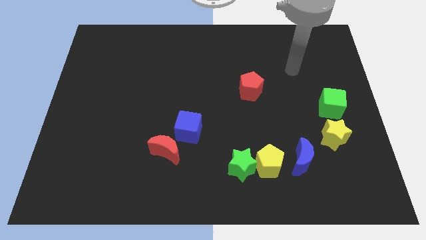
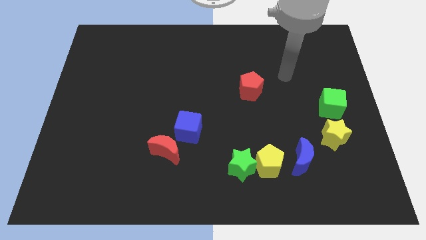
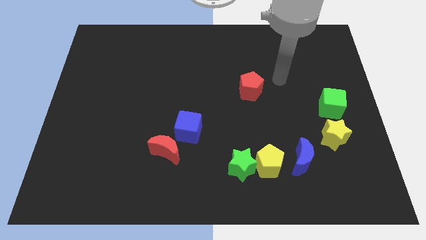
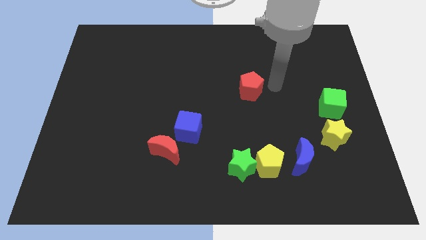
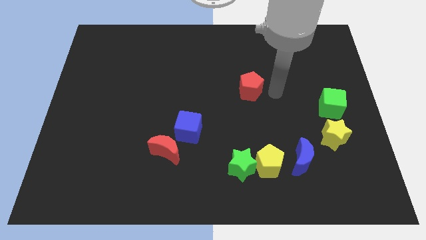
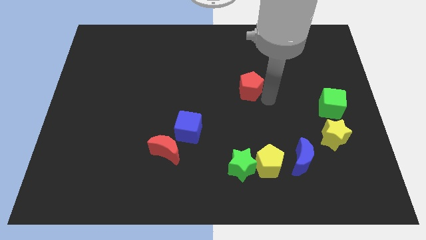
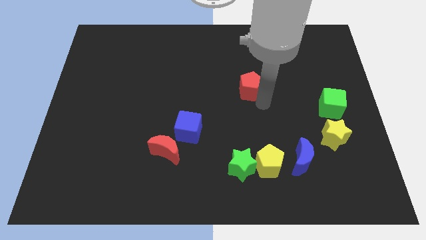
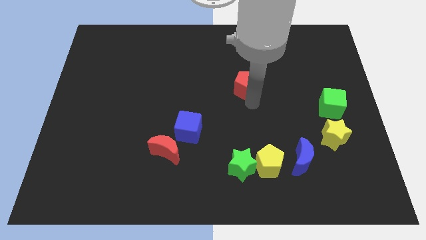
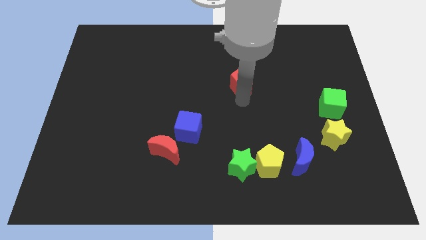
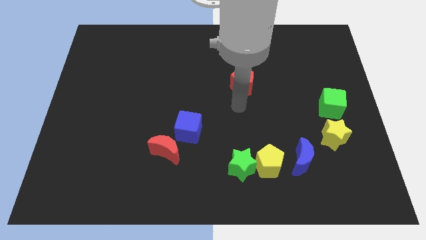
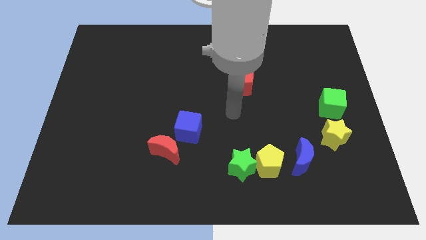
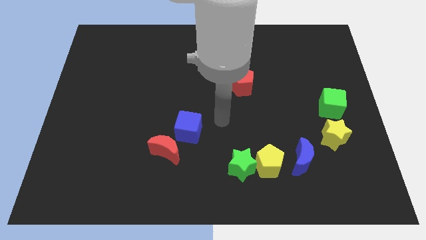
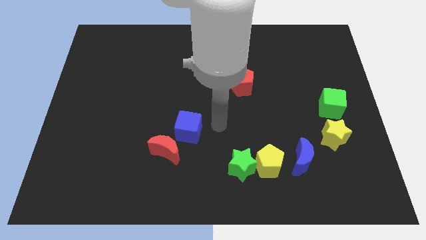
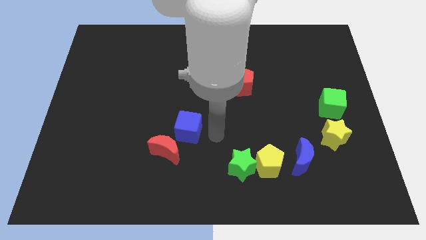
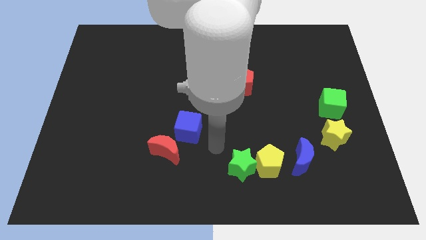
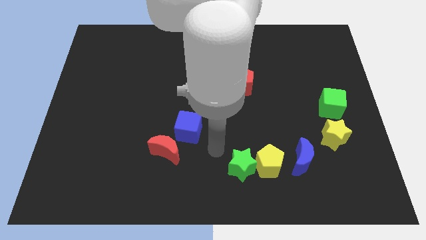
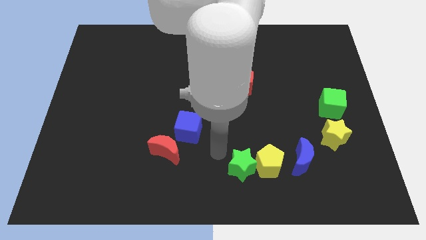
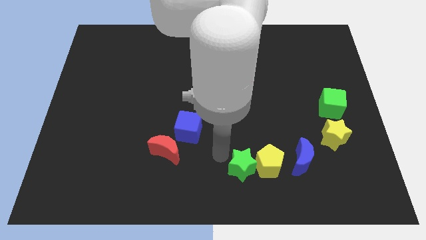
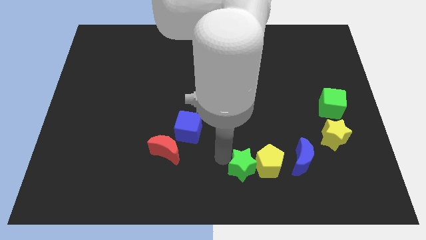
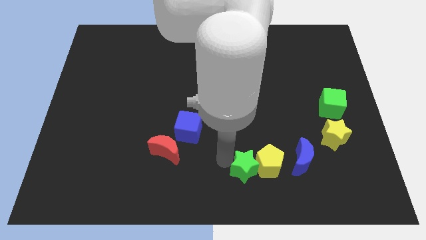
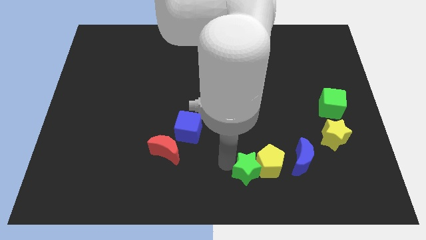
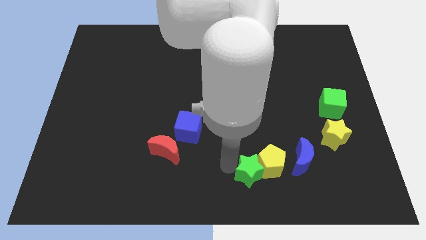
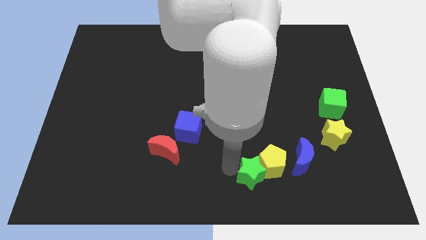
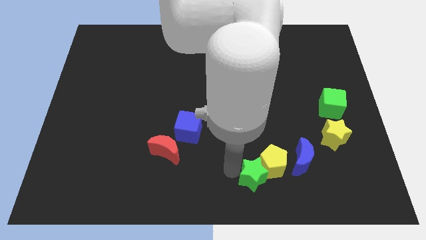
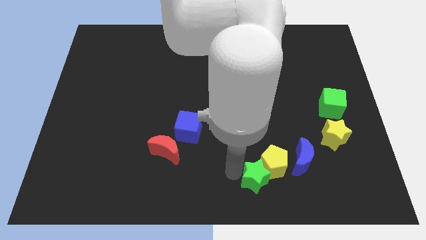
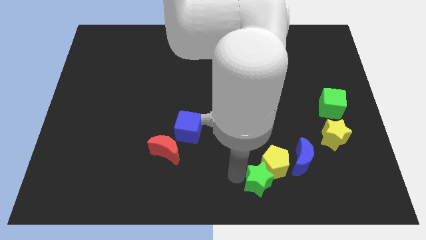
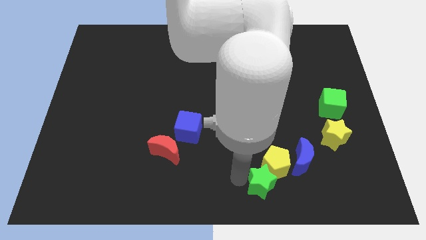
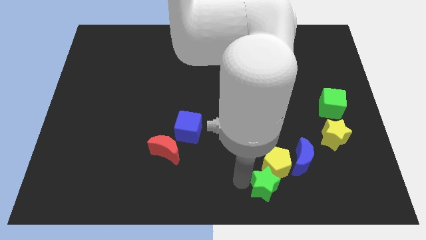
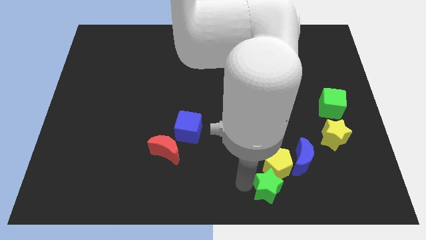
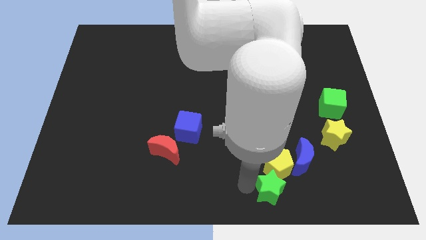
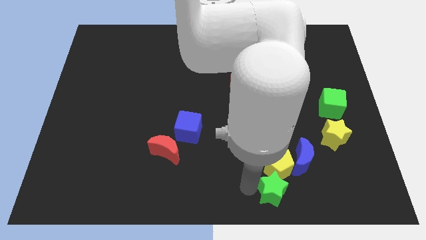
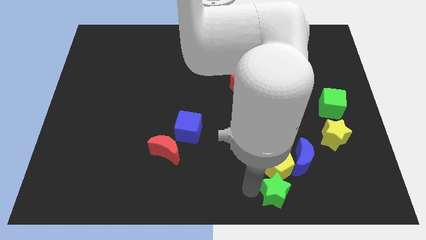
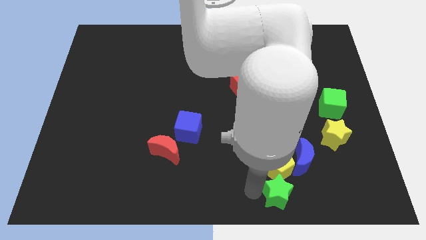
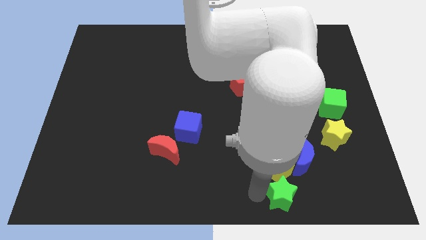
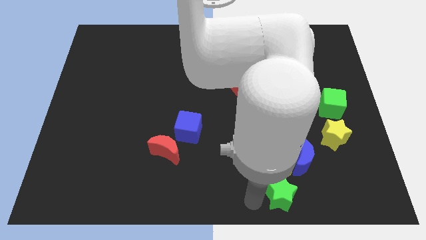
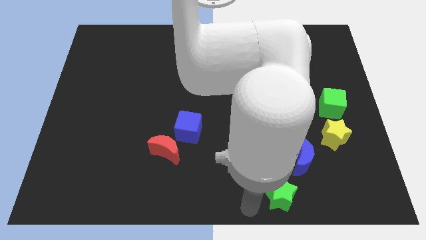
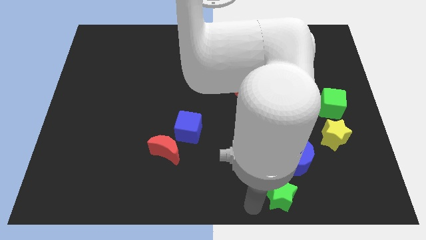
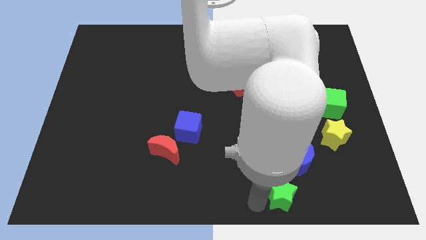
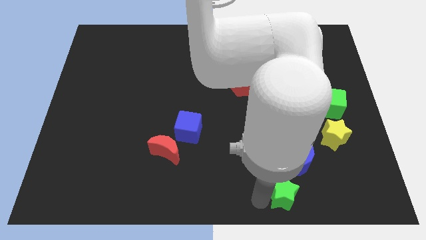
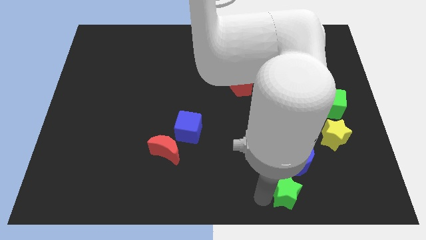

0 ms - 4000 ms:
slightly slide the green star to the right

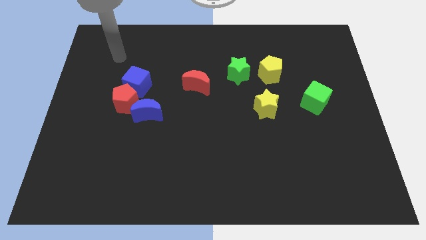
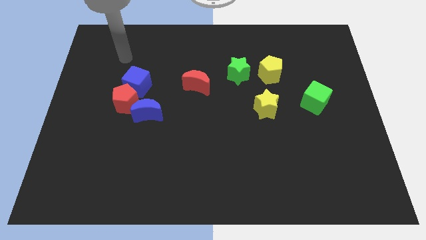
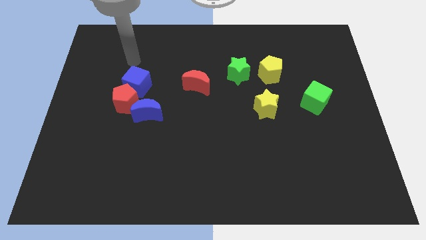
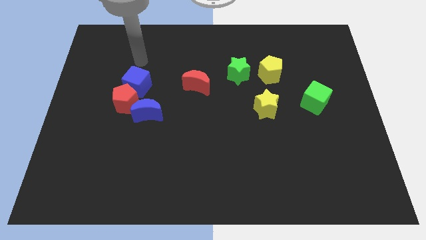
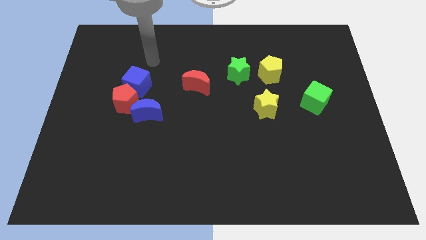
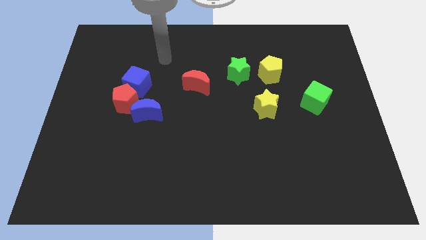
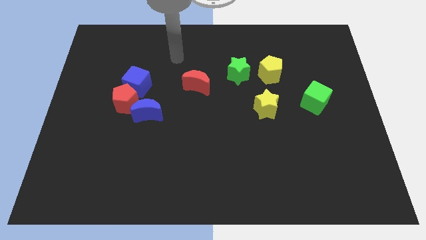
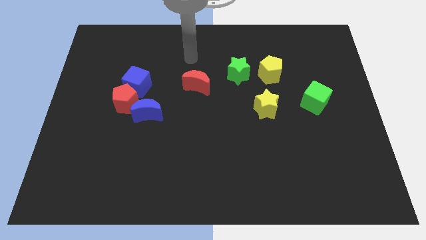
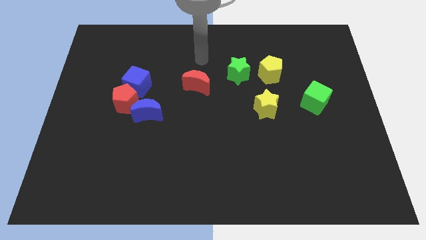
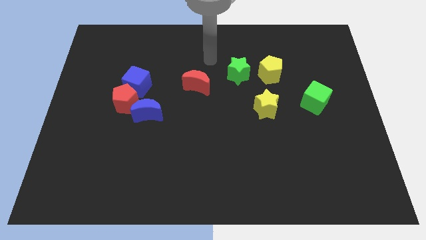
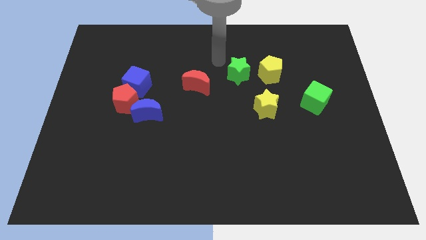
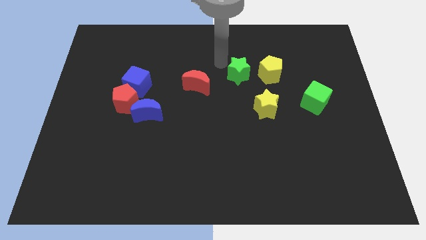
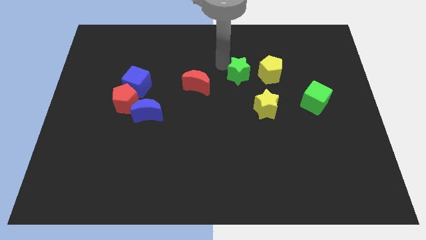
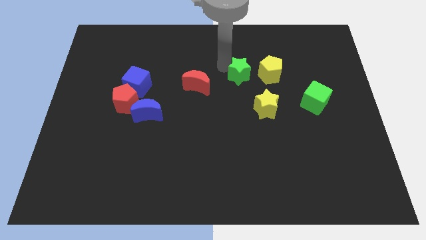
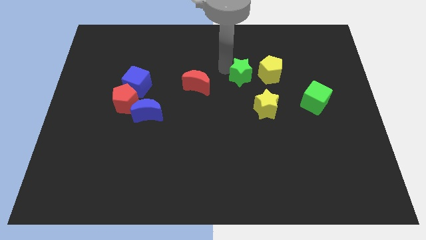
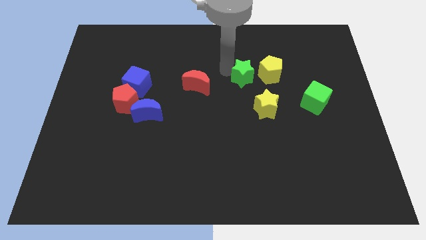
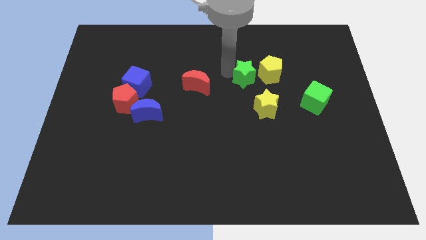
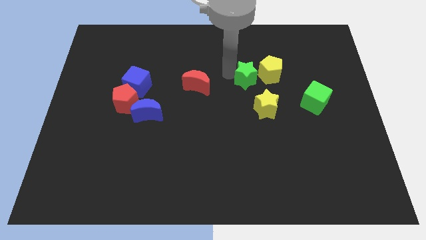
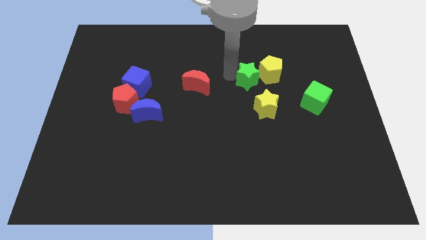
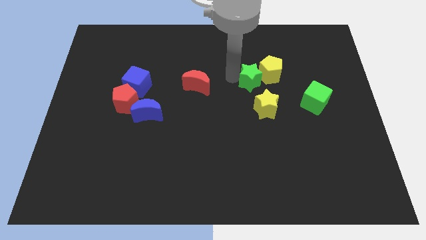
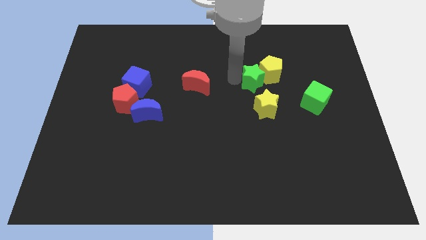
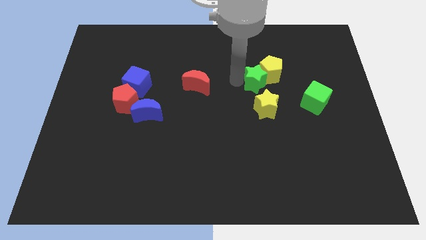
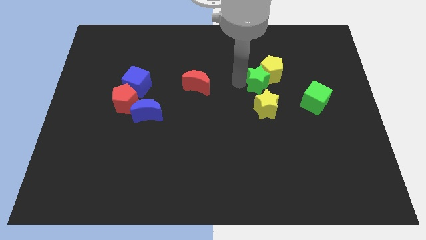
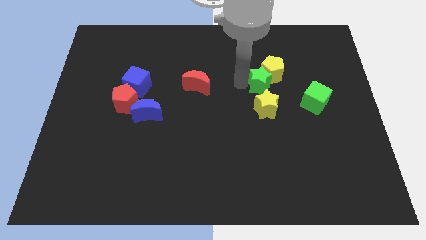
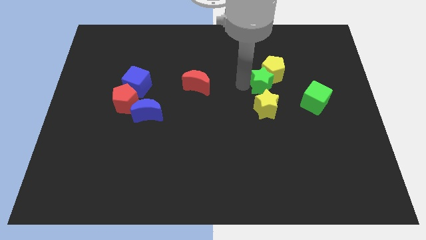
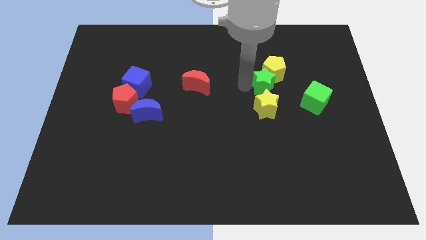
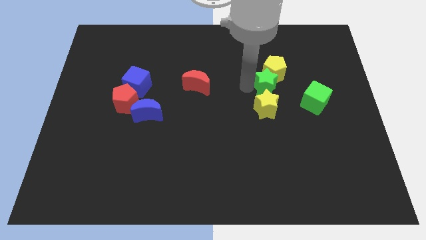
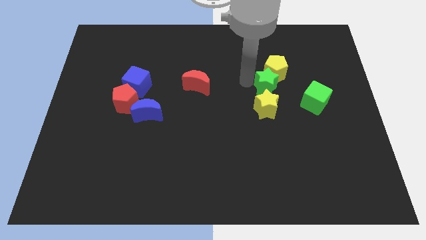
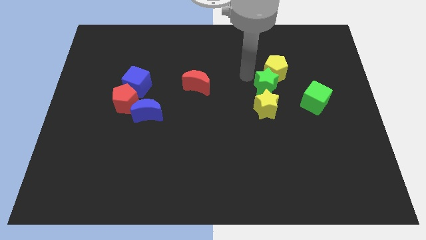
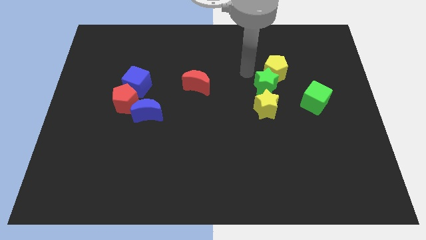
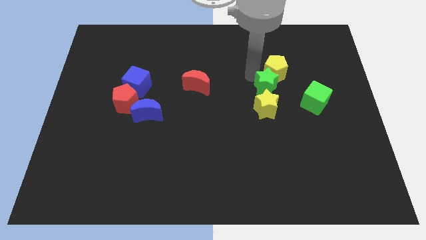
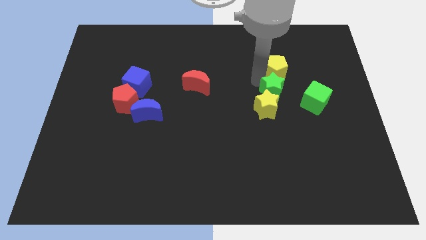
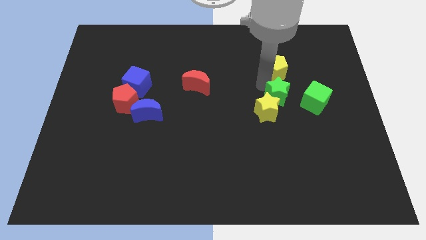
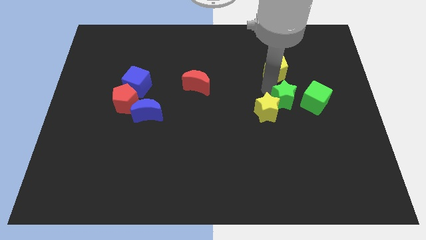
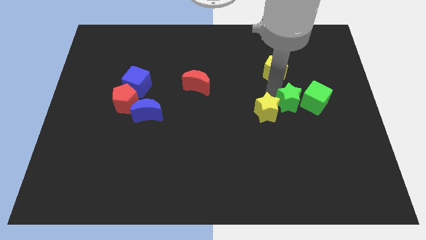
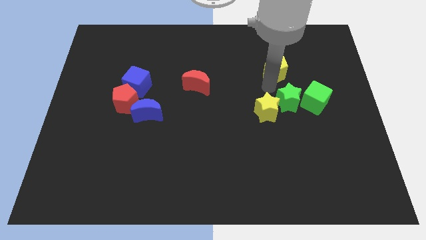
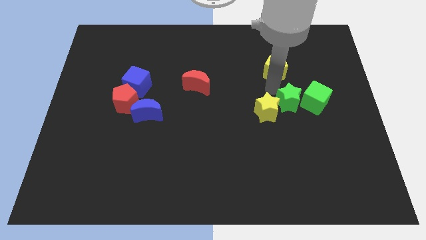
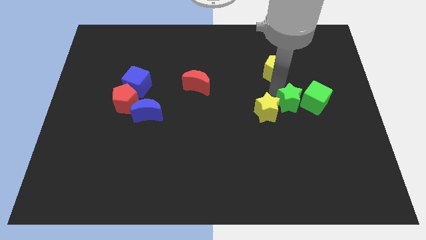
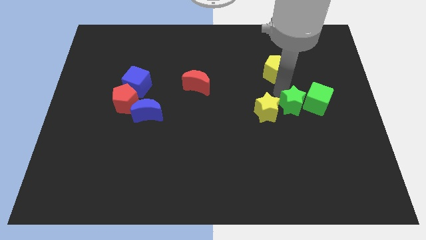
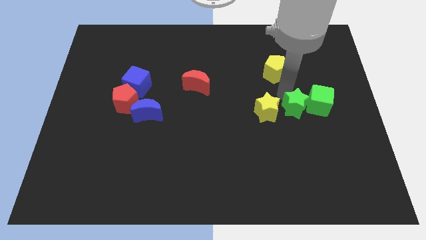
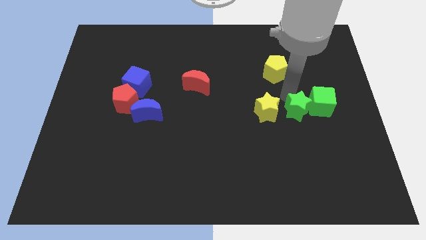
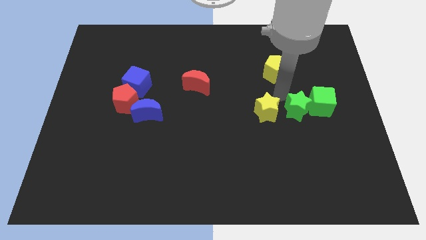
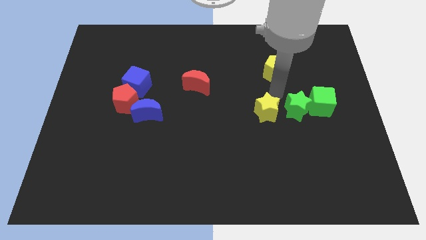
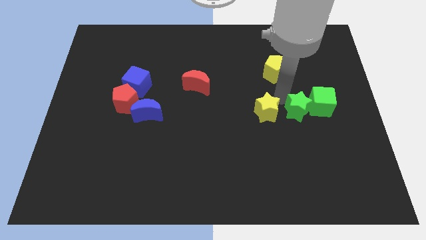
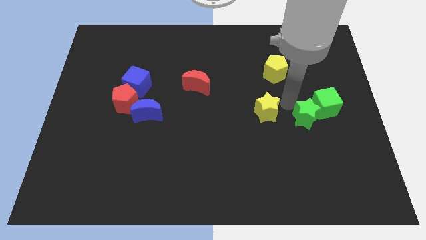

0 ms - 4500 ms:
push the green star down and to the right diagonally
